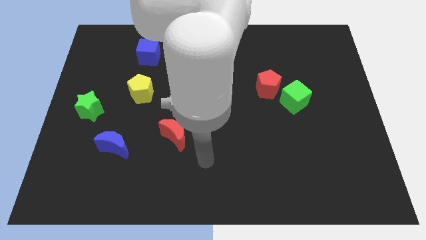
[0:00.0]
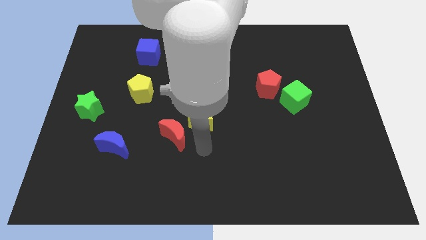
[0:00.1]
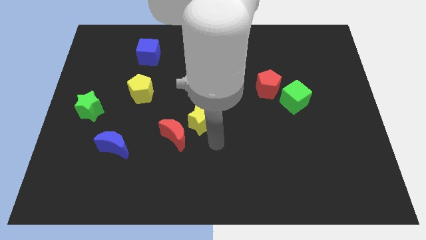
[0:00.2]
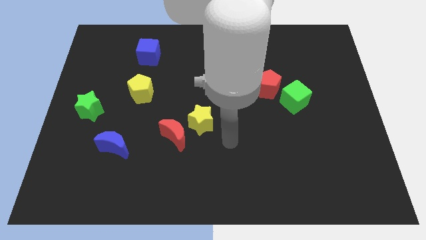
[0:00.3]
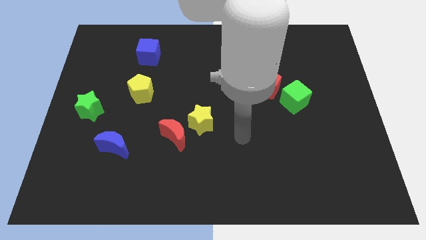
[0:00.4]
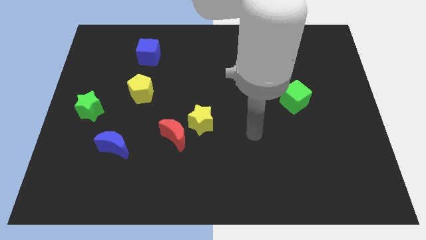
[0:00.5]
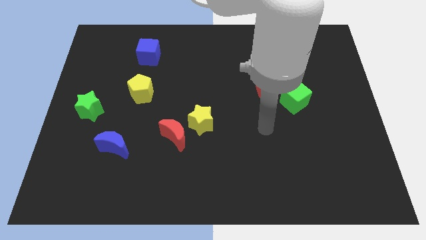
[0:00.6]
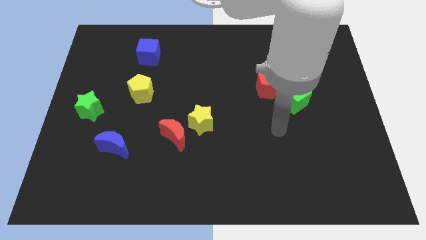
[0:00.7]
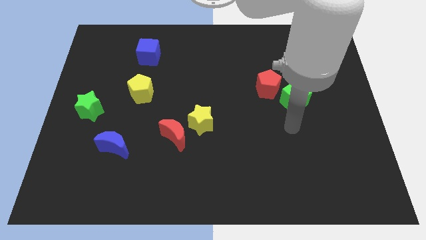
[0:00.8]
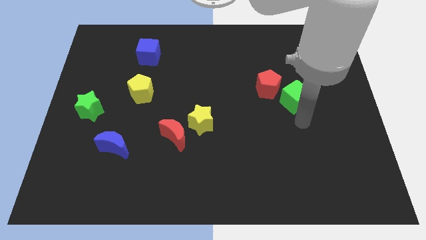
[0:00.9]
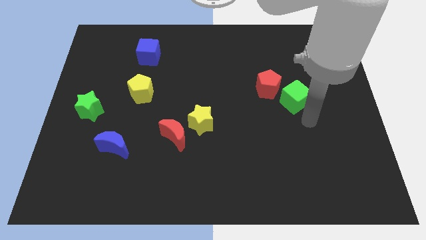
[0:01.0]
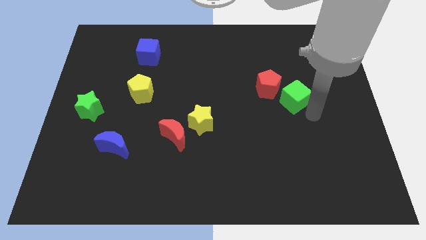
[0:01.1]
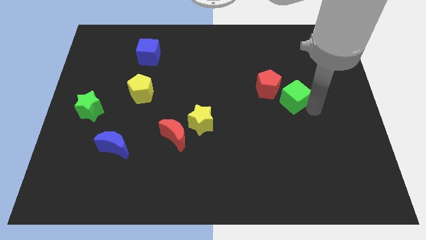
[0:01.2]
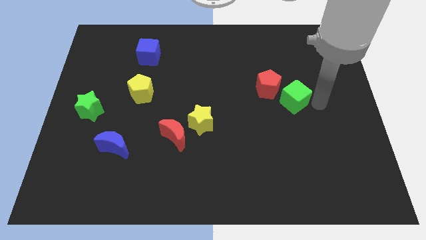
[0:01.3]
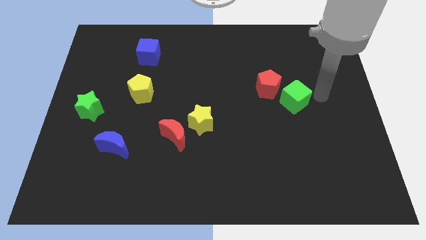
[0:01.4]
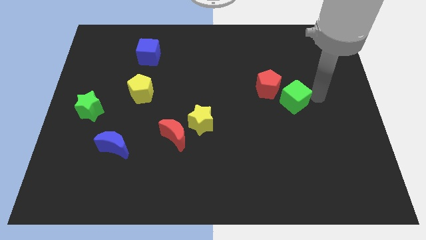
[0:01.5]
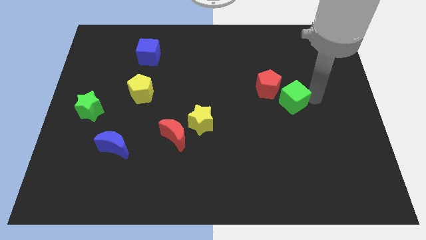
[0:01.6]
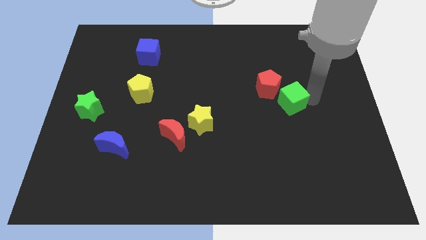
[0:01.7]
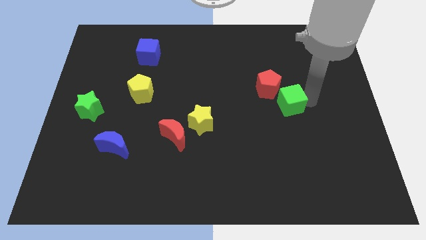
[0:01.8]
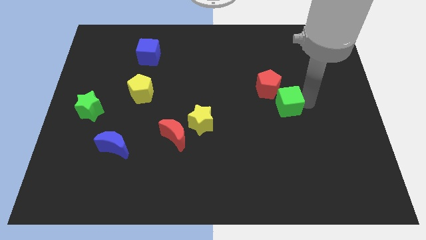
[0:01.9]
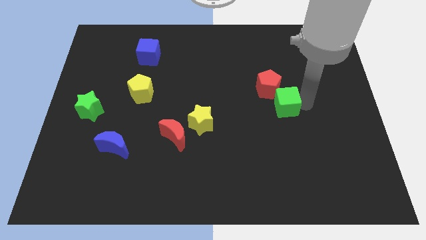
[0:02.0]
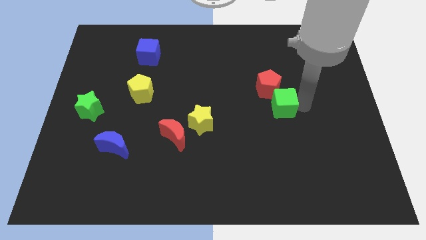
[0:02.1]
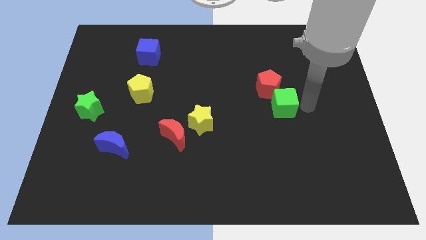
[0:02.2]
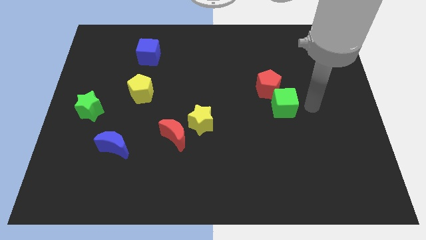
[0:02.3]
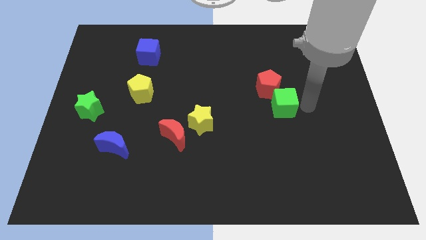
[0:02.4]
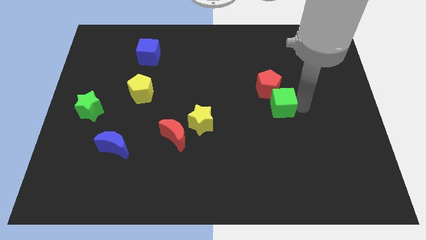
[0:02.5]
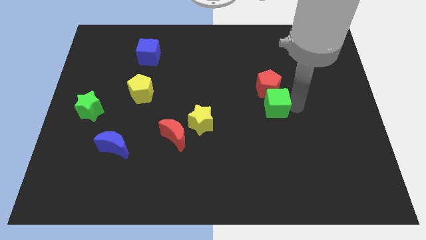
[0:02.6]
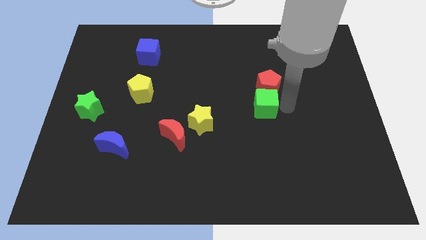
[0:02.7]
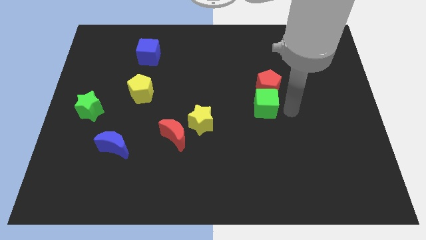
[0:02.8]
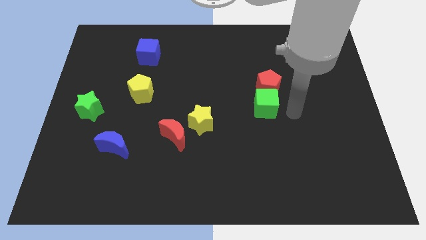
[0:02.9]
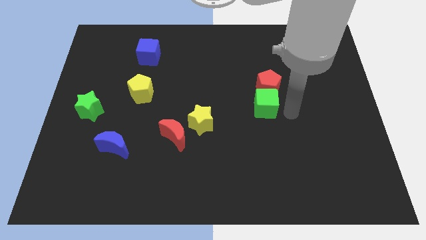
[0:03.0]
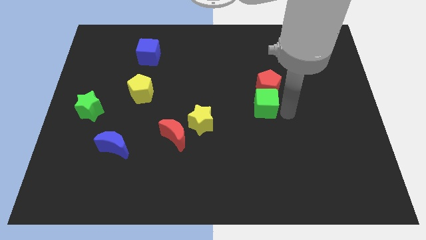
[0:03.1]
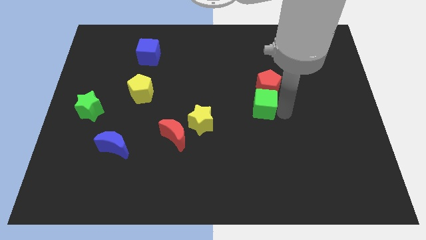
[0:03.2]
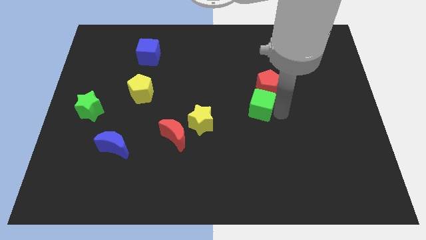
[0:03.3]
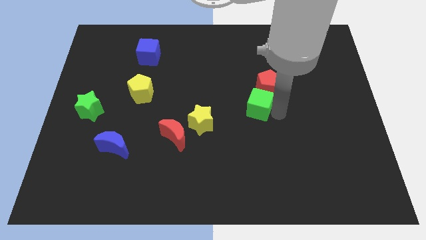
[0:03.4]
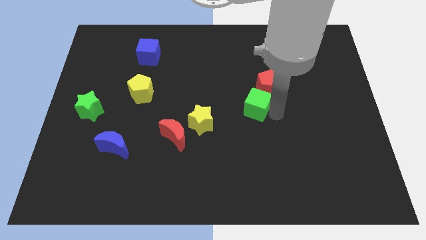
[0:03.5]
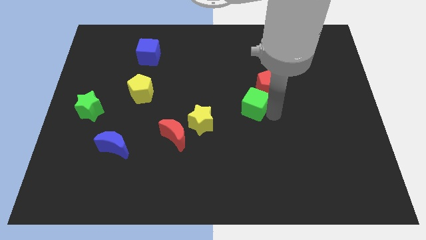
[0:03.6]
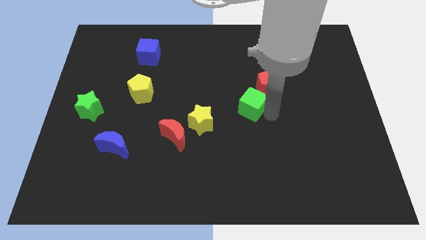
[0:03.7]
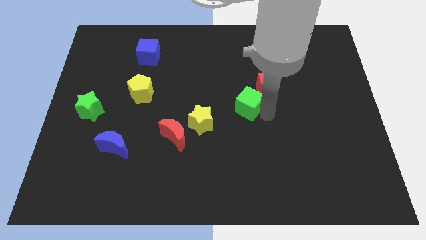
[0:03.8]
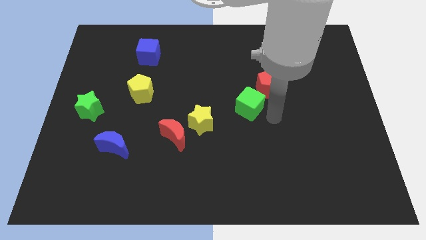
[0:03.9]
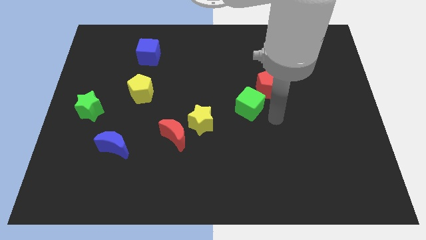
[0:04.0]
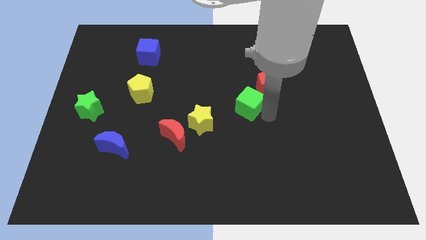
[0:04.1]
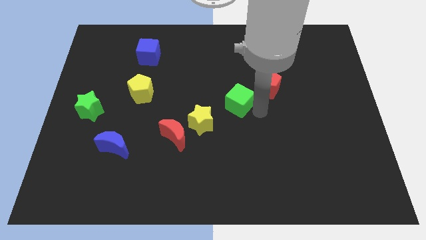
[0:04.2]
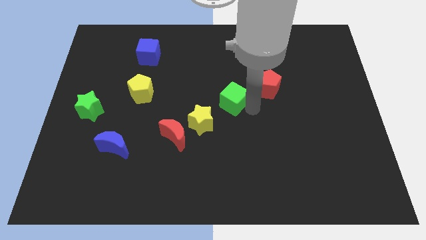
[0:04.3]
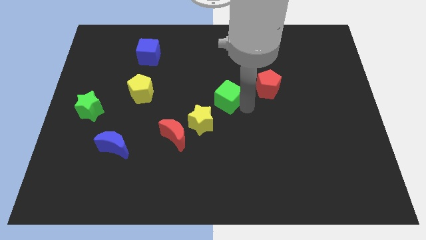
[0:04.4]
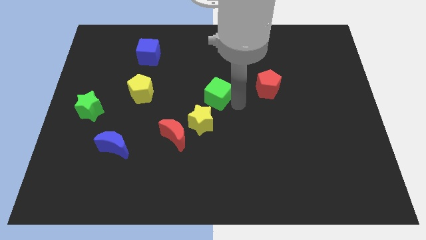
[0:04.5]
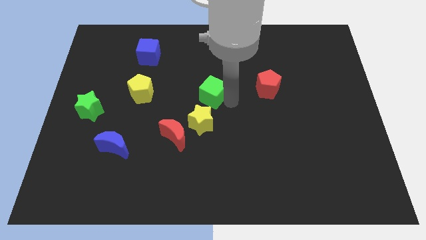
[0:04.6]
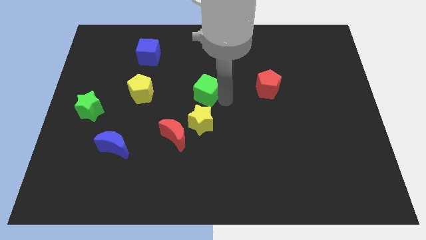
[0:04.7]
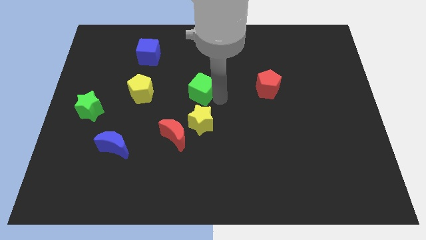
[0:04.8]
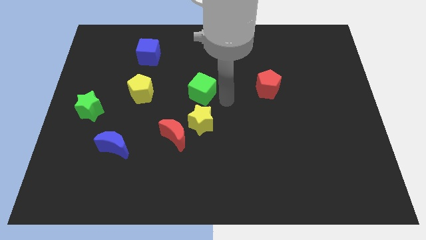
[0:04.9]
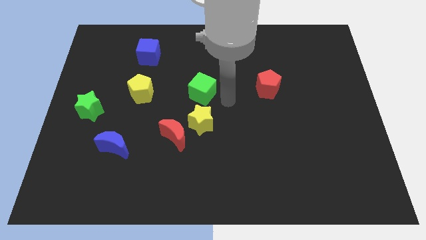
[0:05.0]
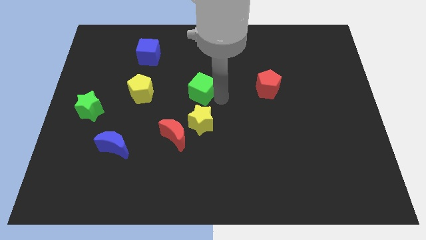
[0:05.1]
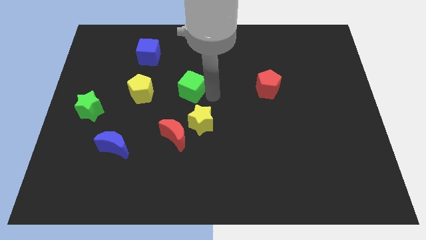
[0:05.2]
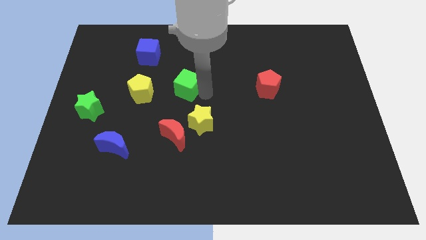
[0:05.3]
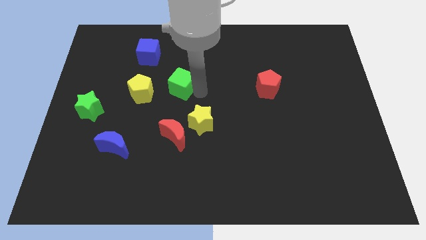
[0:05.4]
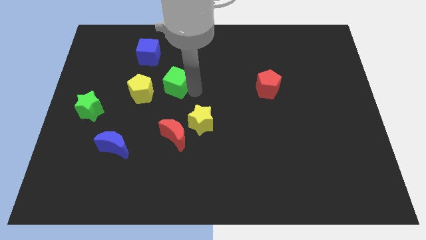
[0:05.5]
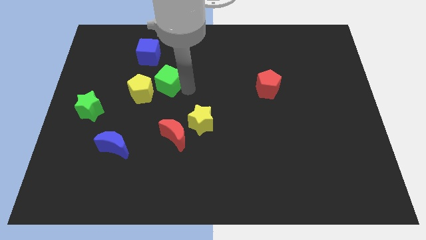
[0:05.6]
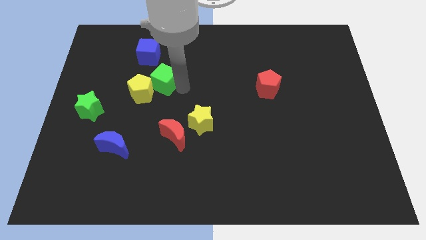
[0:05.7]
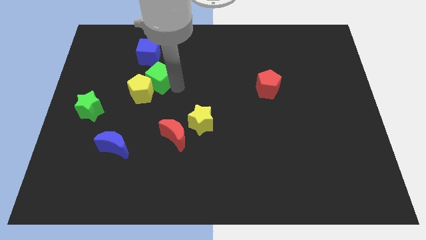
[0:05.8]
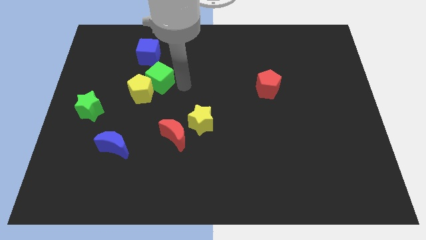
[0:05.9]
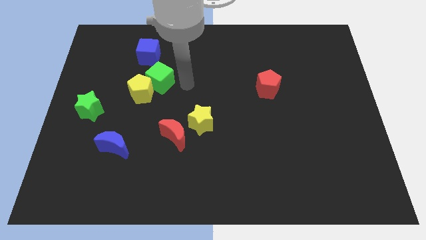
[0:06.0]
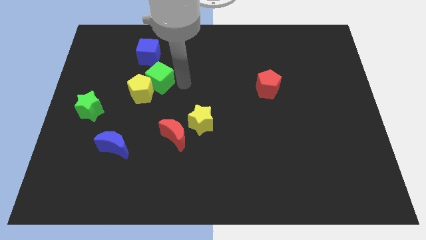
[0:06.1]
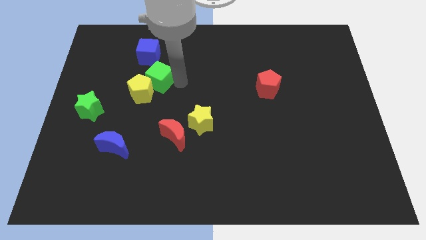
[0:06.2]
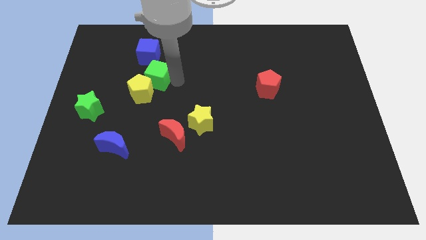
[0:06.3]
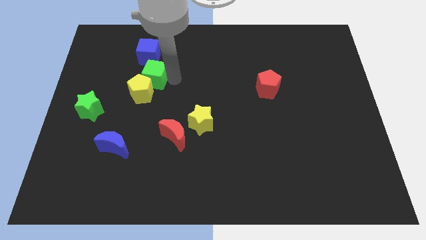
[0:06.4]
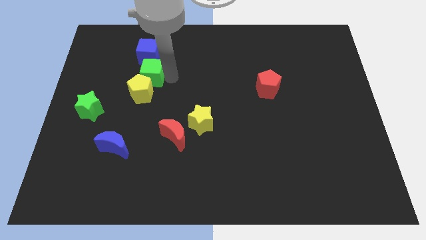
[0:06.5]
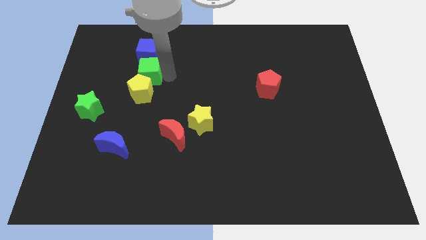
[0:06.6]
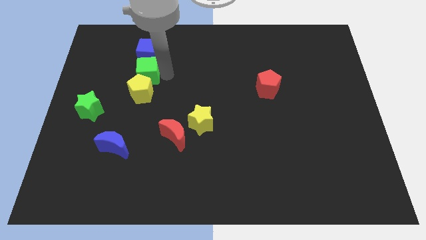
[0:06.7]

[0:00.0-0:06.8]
slide the green cube to the top left of the yellow pentagon

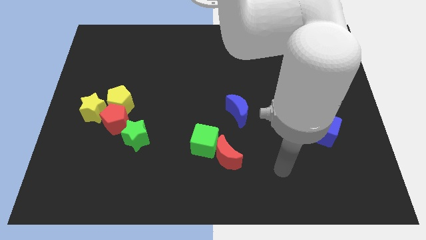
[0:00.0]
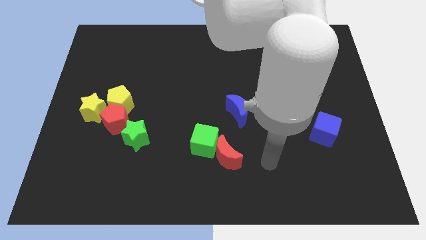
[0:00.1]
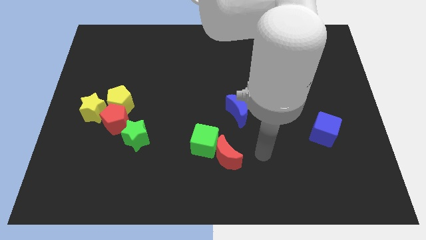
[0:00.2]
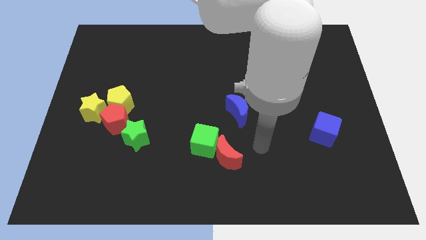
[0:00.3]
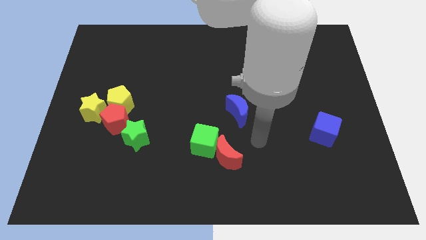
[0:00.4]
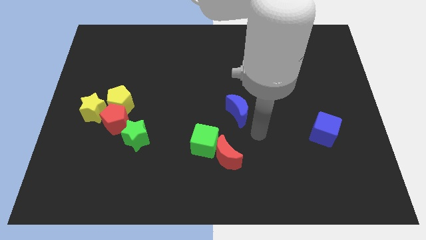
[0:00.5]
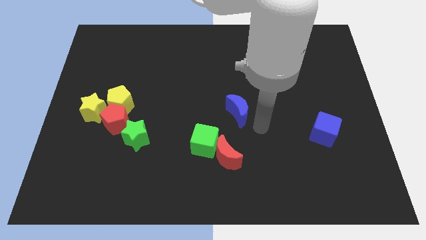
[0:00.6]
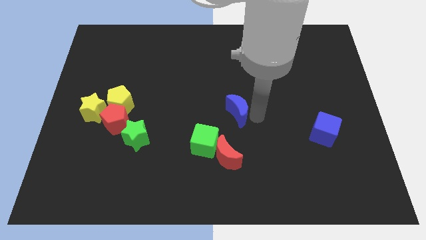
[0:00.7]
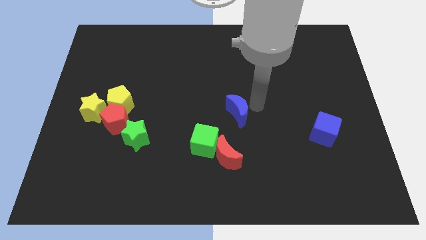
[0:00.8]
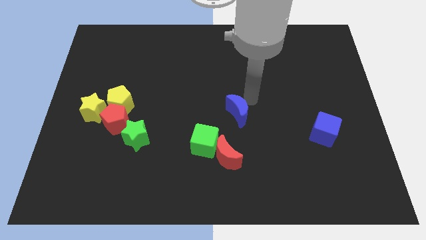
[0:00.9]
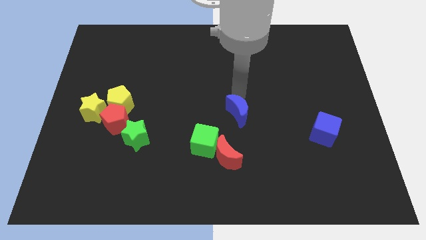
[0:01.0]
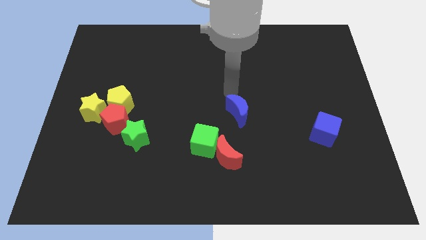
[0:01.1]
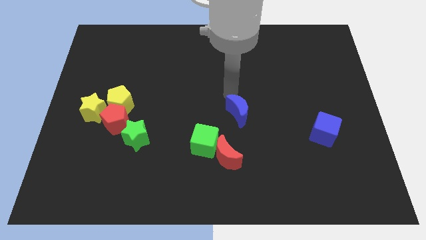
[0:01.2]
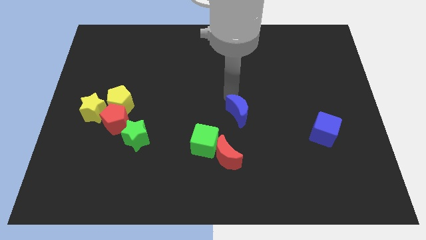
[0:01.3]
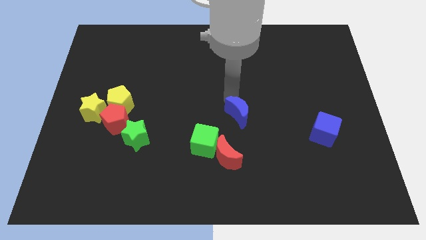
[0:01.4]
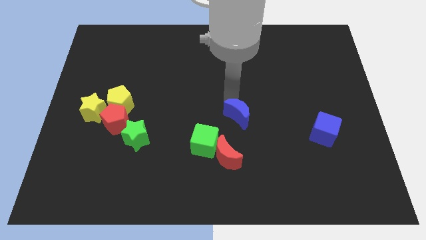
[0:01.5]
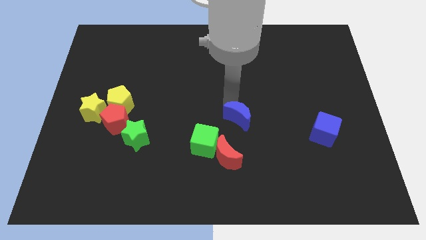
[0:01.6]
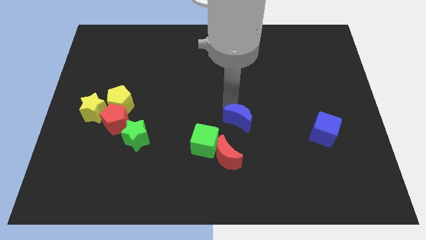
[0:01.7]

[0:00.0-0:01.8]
push the blue moon to the top right side of the red moon
